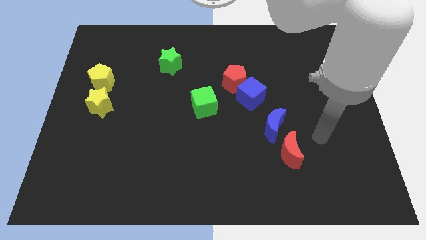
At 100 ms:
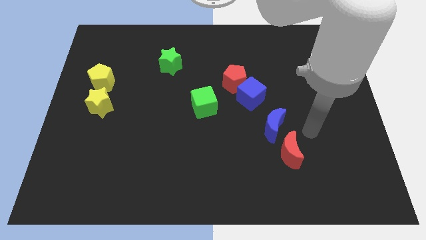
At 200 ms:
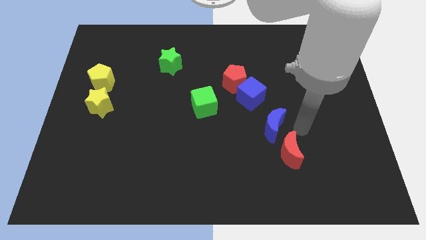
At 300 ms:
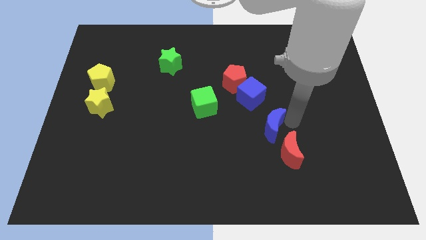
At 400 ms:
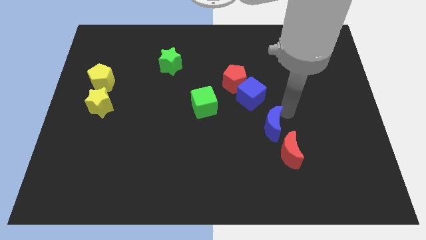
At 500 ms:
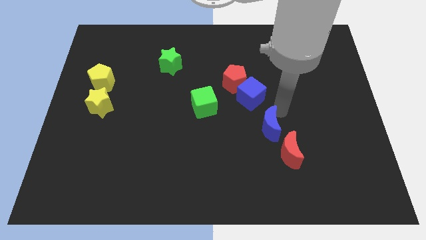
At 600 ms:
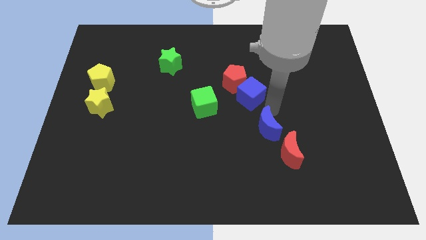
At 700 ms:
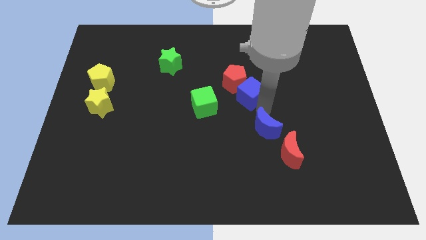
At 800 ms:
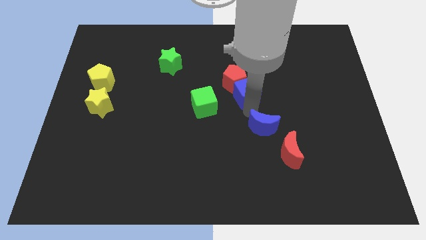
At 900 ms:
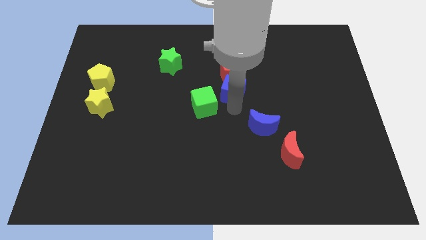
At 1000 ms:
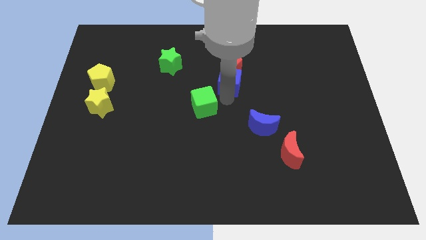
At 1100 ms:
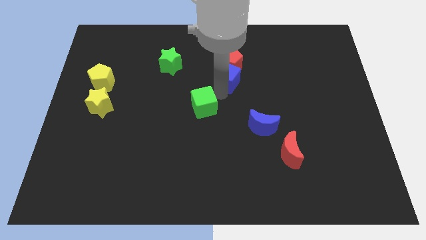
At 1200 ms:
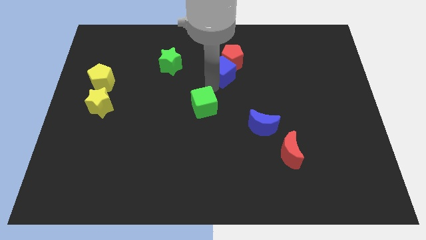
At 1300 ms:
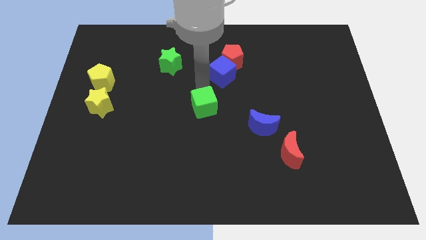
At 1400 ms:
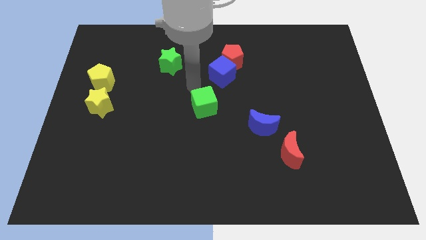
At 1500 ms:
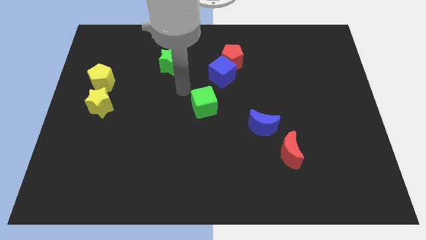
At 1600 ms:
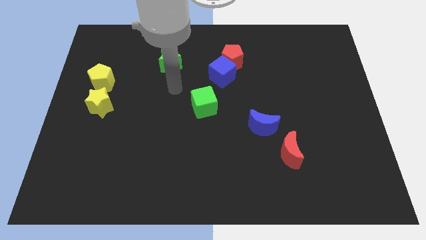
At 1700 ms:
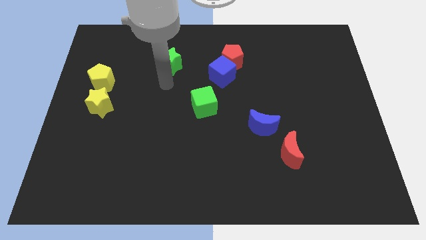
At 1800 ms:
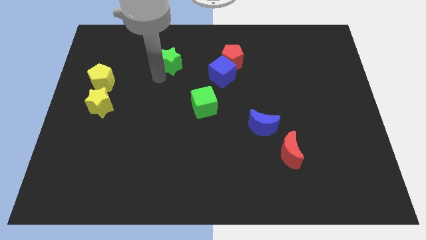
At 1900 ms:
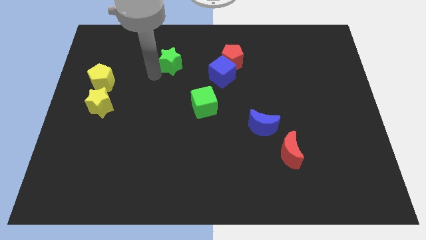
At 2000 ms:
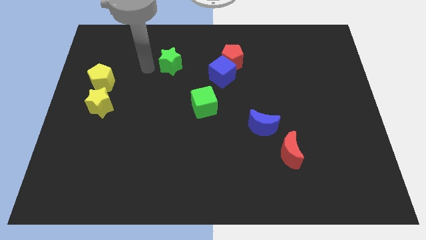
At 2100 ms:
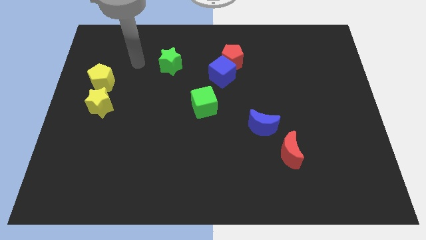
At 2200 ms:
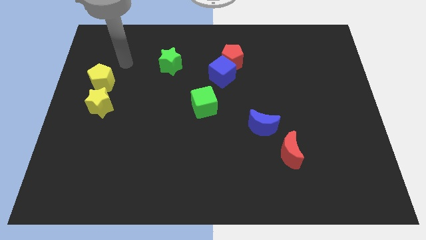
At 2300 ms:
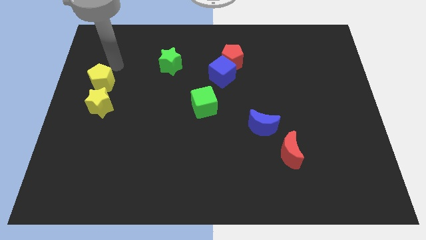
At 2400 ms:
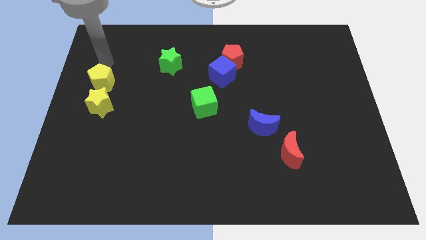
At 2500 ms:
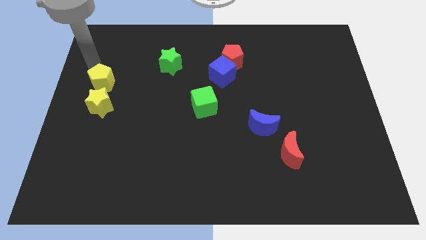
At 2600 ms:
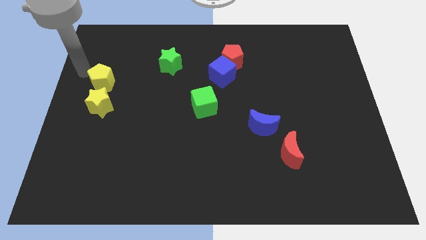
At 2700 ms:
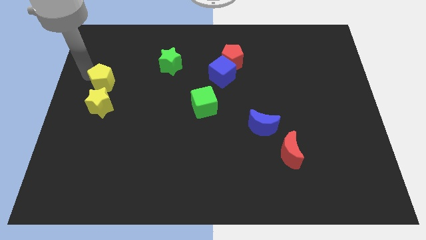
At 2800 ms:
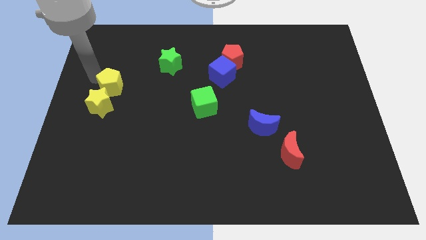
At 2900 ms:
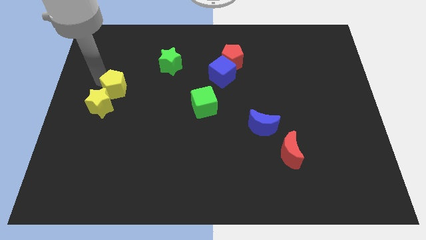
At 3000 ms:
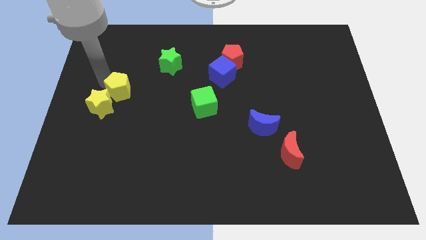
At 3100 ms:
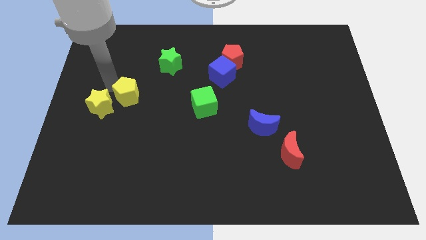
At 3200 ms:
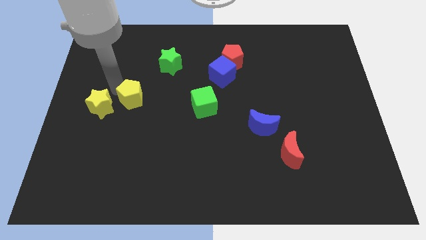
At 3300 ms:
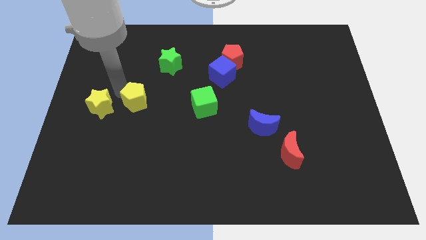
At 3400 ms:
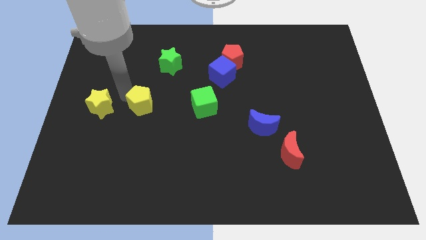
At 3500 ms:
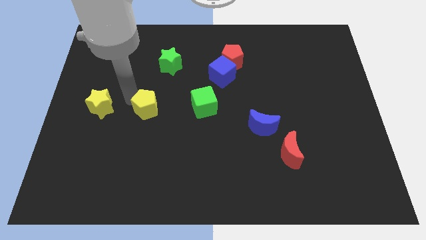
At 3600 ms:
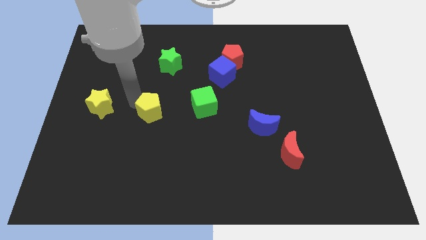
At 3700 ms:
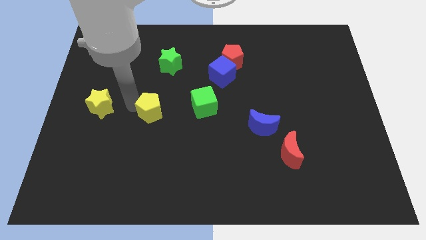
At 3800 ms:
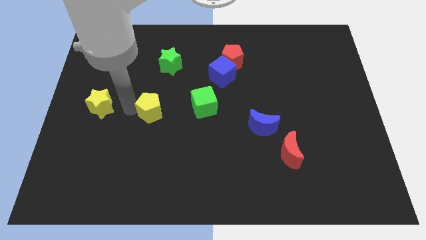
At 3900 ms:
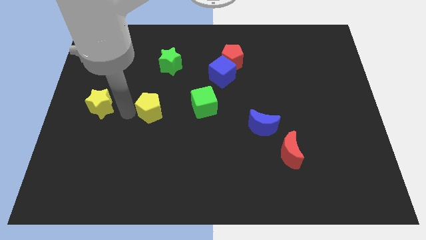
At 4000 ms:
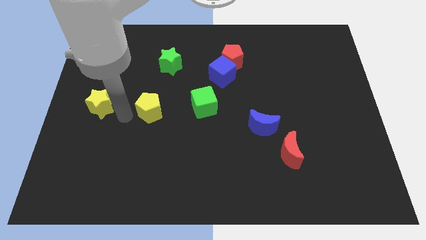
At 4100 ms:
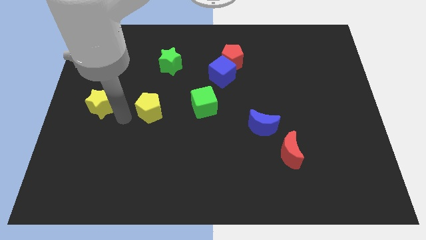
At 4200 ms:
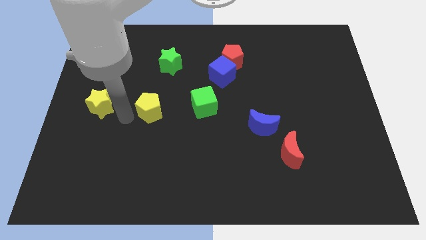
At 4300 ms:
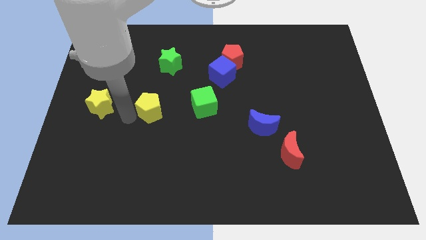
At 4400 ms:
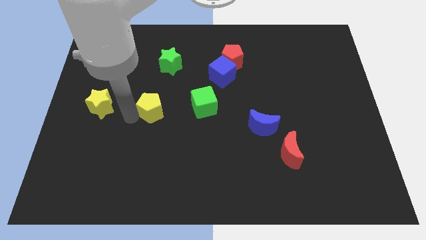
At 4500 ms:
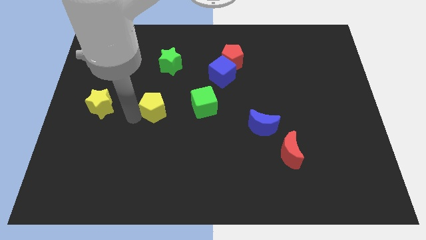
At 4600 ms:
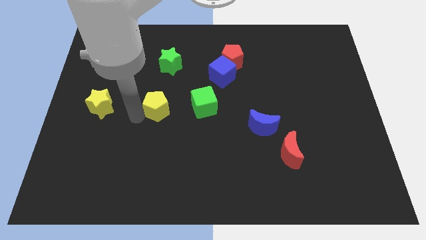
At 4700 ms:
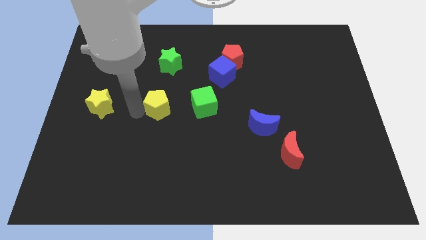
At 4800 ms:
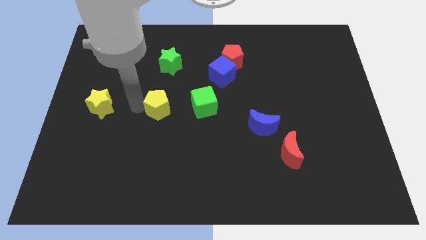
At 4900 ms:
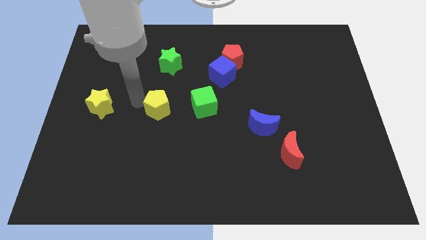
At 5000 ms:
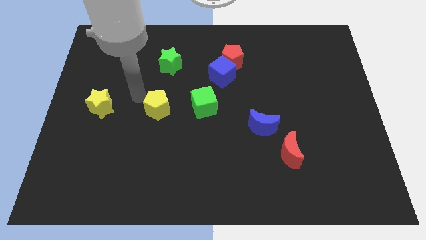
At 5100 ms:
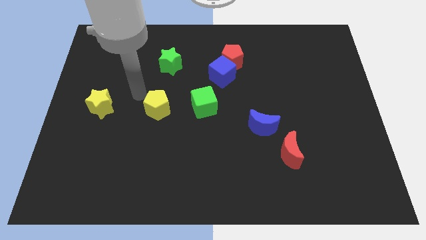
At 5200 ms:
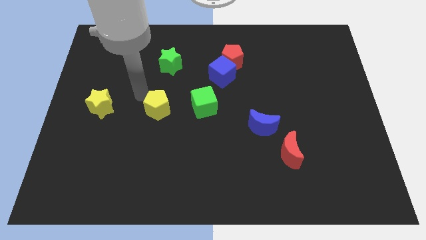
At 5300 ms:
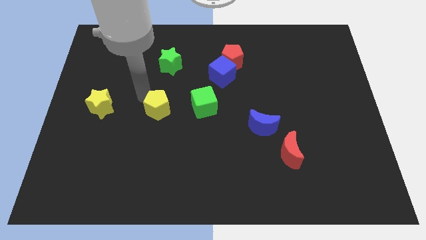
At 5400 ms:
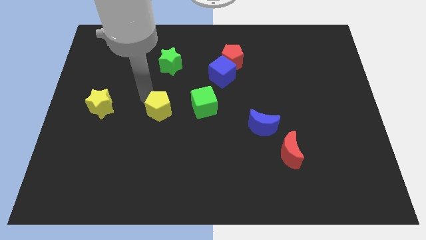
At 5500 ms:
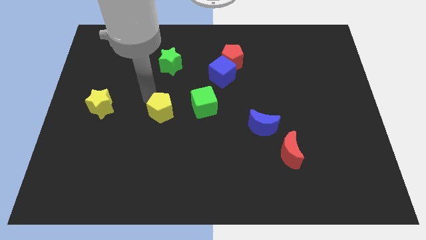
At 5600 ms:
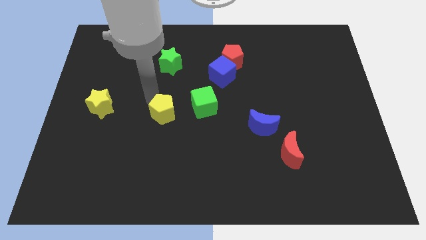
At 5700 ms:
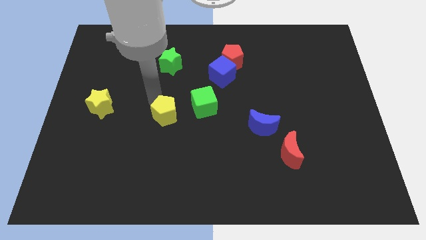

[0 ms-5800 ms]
move the yellow pentagon to the bottom left of the green cube

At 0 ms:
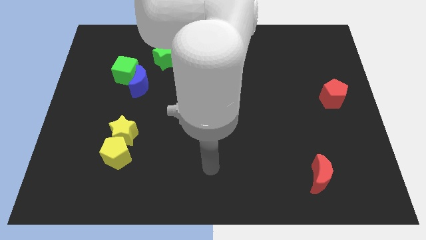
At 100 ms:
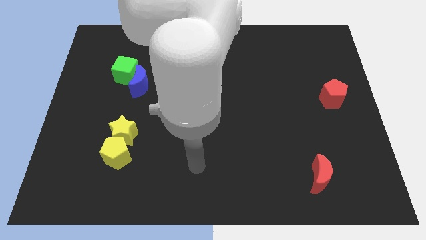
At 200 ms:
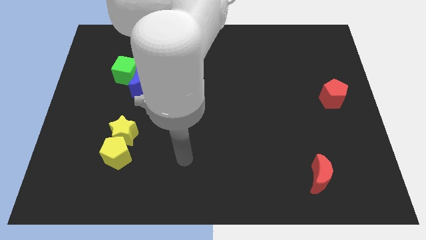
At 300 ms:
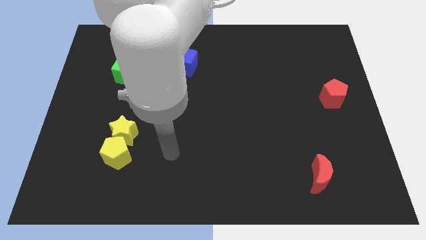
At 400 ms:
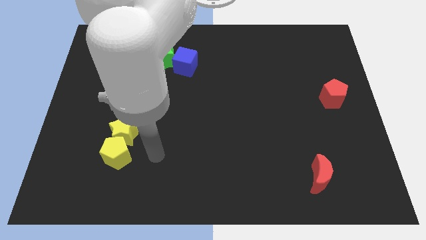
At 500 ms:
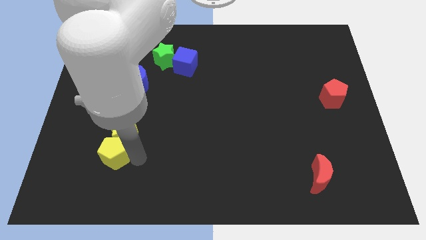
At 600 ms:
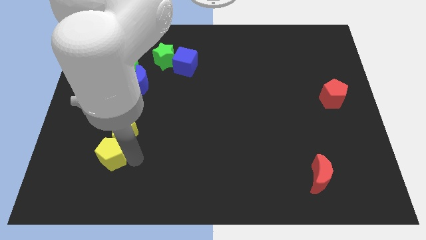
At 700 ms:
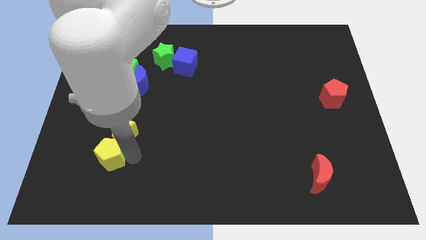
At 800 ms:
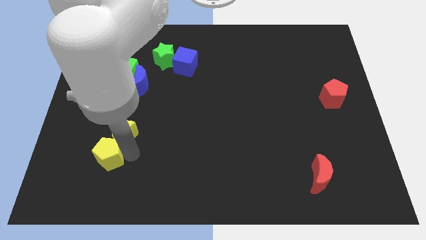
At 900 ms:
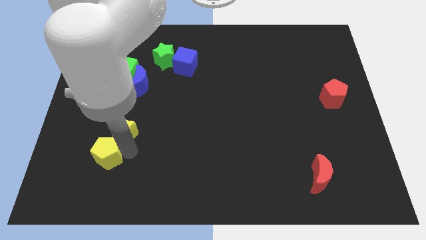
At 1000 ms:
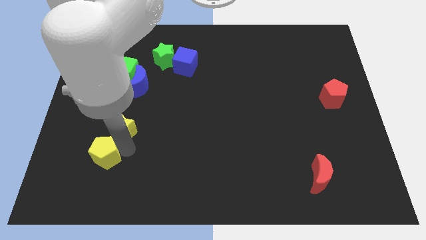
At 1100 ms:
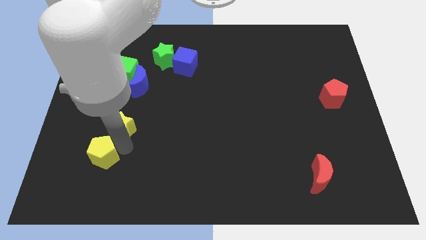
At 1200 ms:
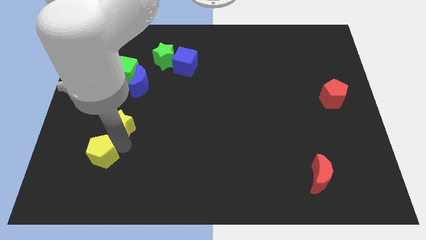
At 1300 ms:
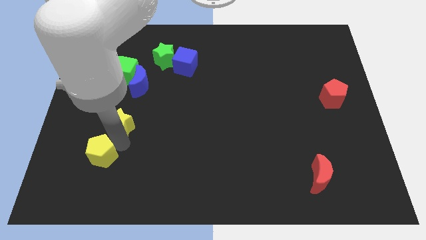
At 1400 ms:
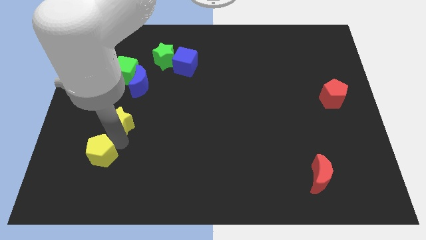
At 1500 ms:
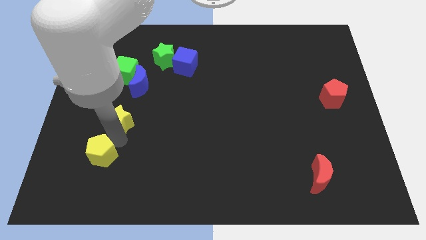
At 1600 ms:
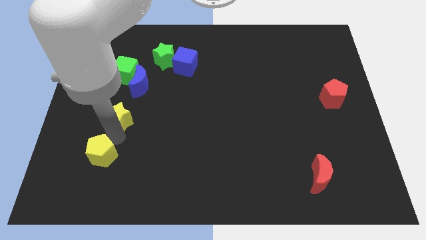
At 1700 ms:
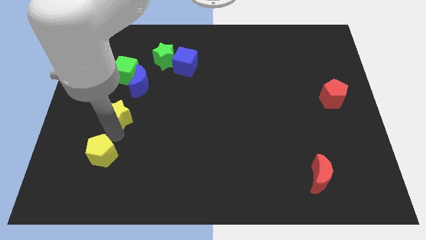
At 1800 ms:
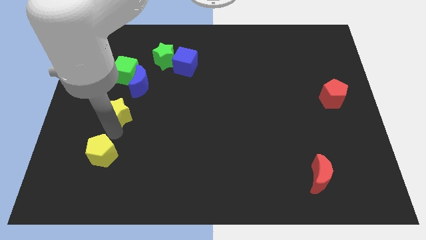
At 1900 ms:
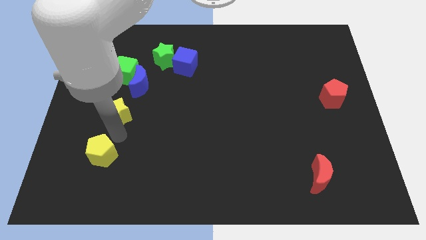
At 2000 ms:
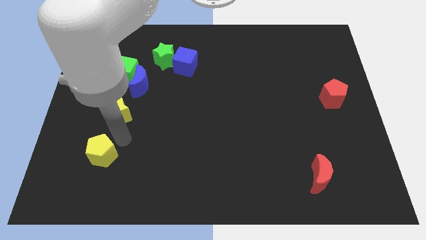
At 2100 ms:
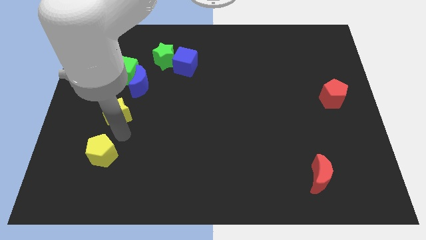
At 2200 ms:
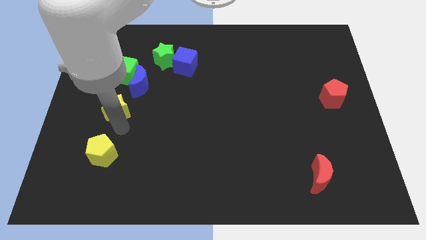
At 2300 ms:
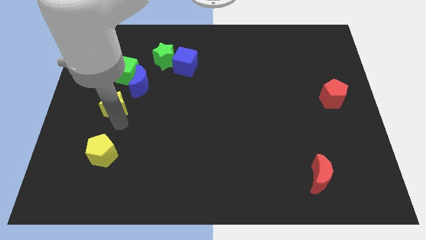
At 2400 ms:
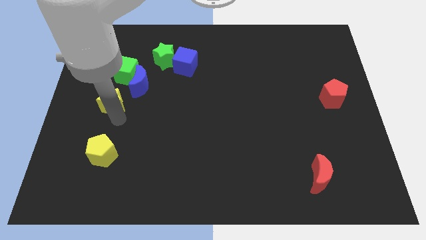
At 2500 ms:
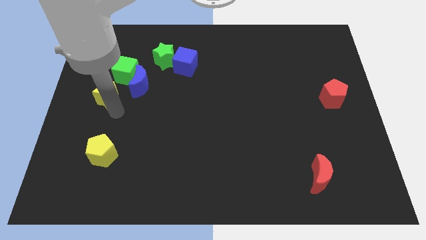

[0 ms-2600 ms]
move the yellow star to the left of the blue moon
